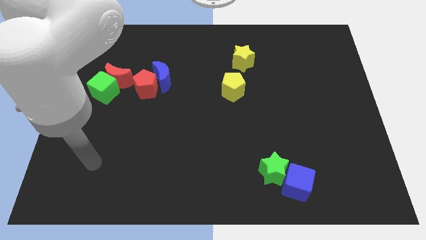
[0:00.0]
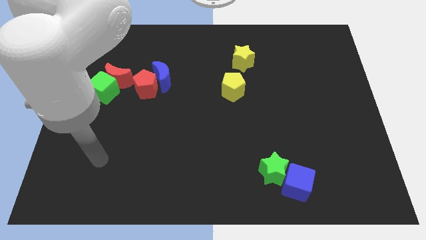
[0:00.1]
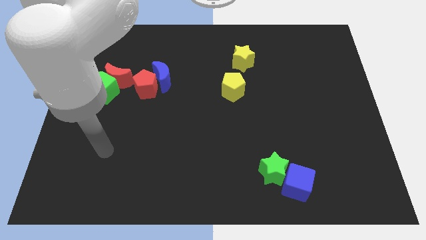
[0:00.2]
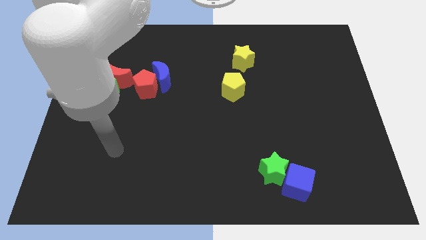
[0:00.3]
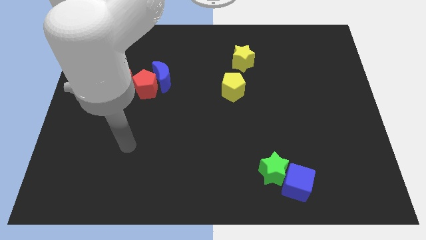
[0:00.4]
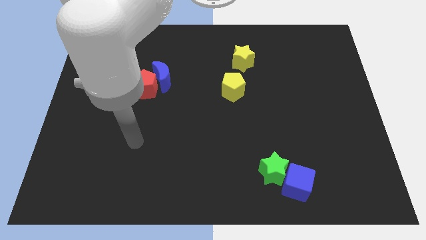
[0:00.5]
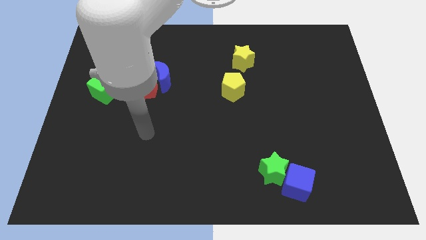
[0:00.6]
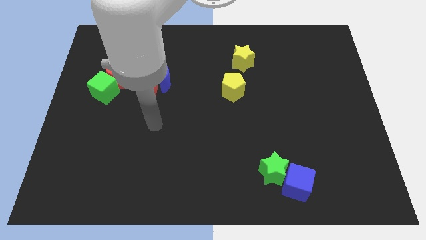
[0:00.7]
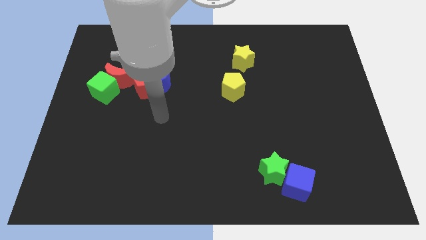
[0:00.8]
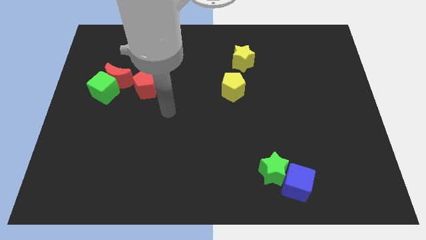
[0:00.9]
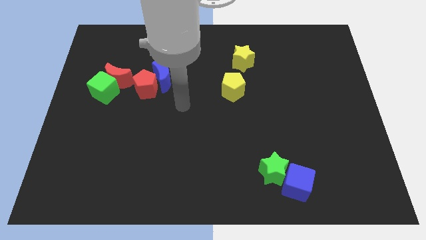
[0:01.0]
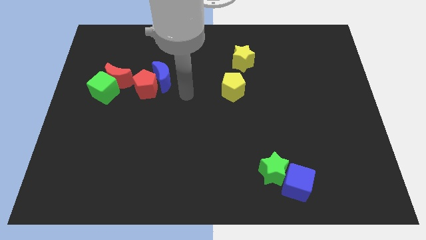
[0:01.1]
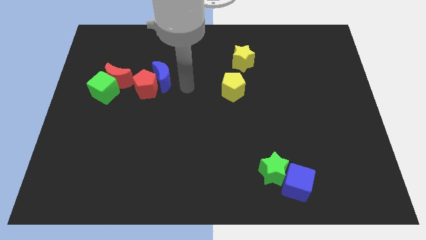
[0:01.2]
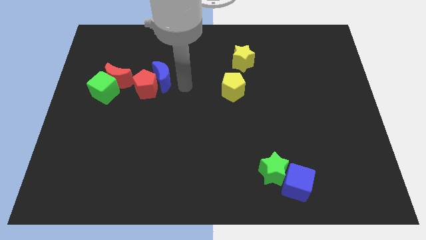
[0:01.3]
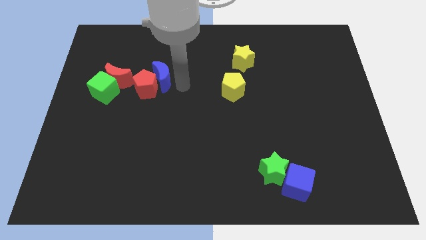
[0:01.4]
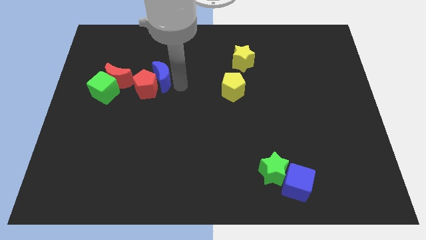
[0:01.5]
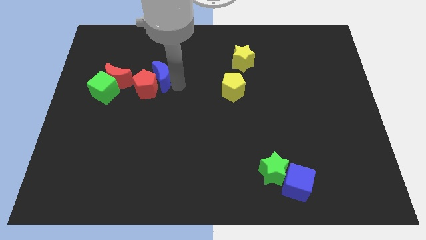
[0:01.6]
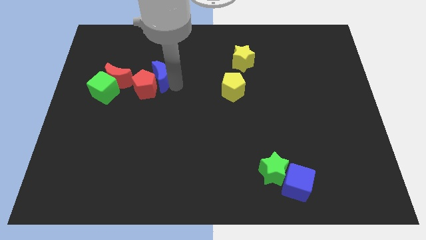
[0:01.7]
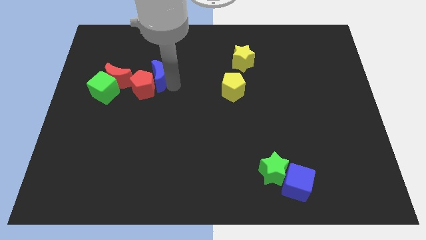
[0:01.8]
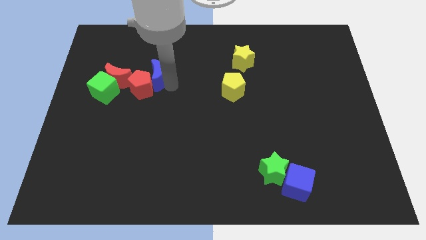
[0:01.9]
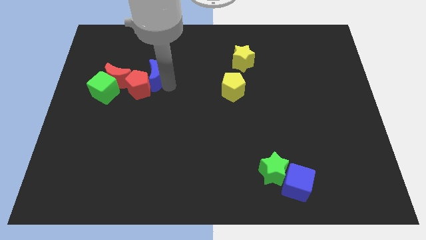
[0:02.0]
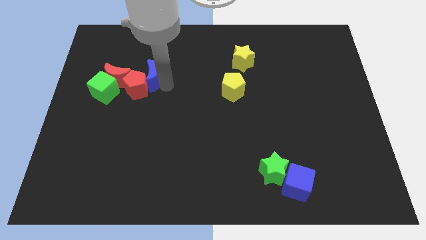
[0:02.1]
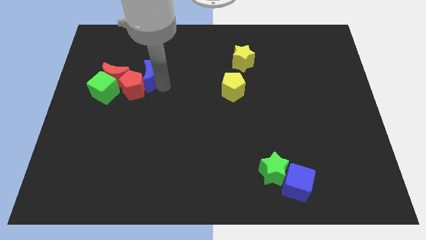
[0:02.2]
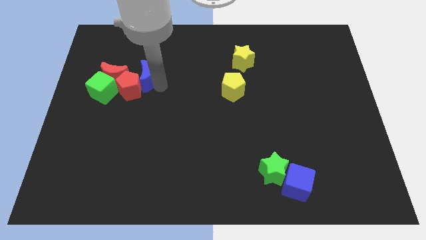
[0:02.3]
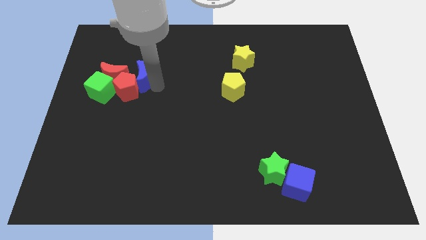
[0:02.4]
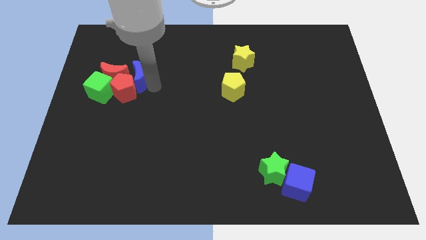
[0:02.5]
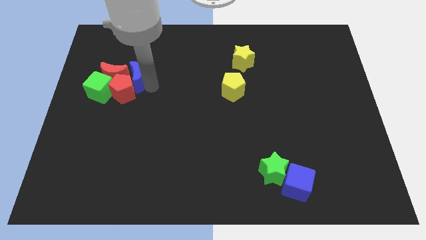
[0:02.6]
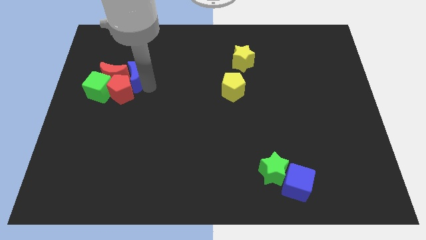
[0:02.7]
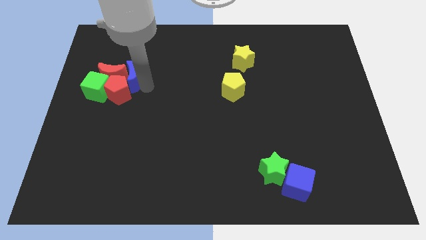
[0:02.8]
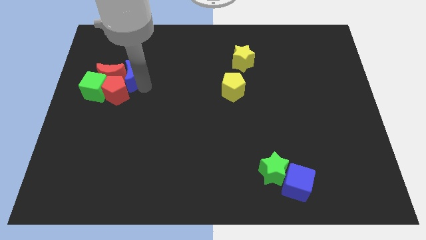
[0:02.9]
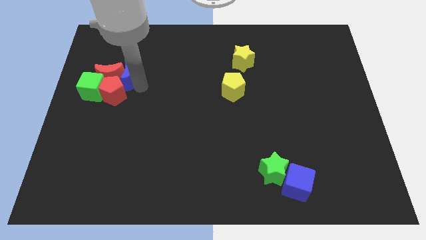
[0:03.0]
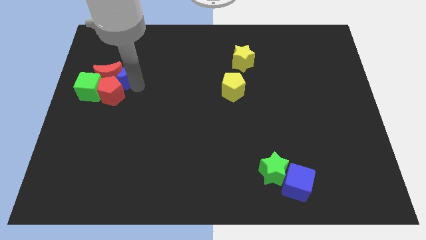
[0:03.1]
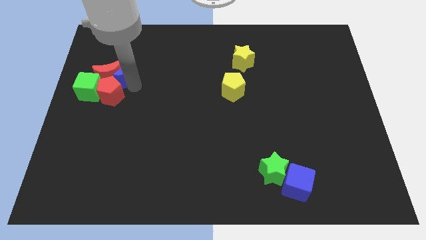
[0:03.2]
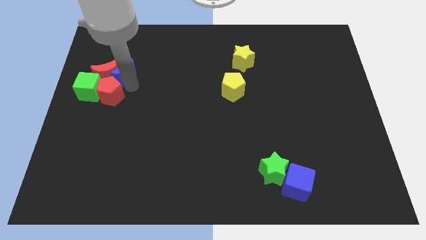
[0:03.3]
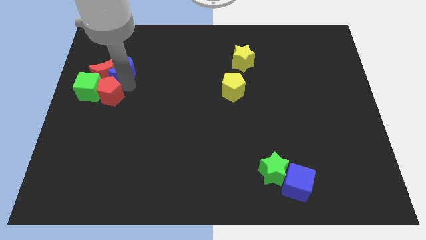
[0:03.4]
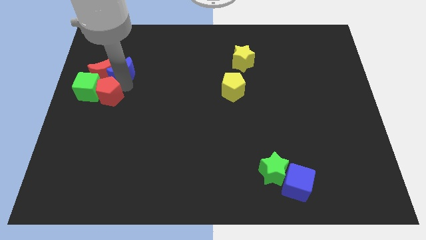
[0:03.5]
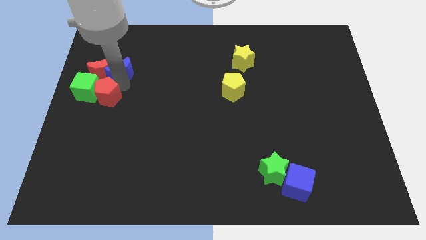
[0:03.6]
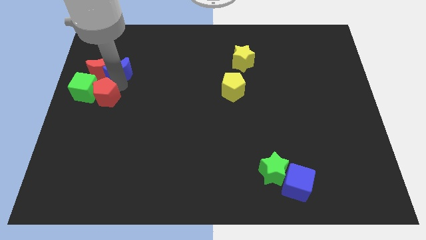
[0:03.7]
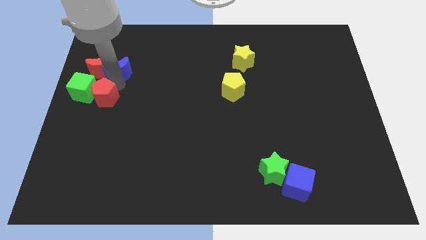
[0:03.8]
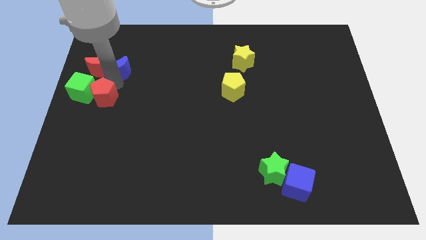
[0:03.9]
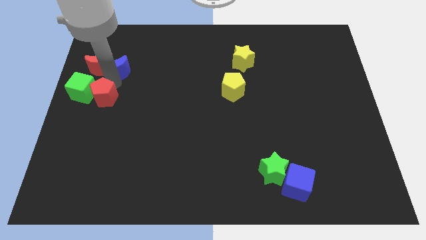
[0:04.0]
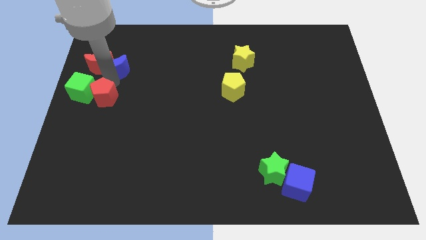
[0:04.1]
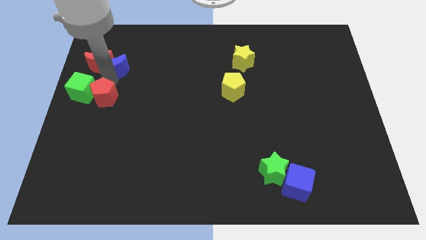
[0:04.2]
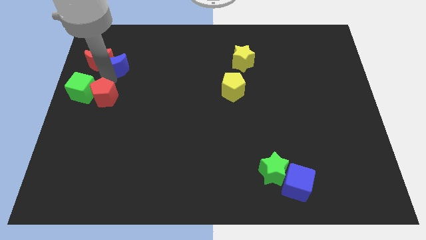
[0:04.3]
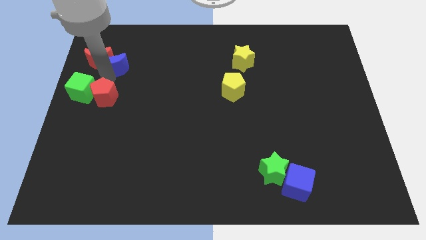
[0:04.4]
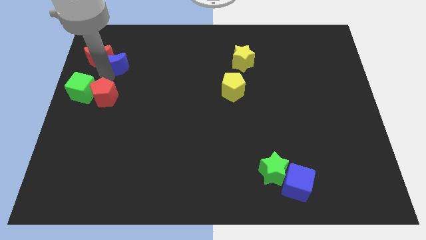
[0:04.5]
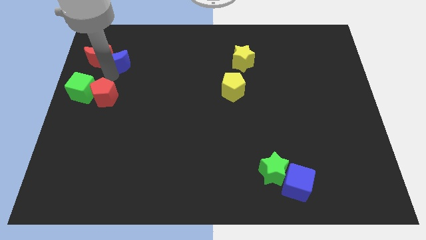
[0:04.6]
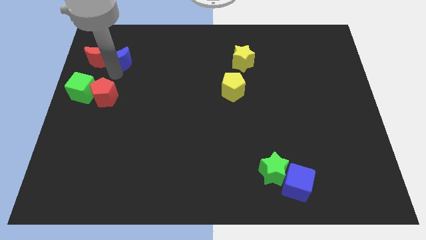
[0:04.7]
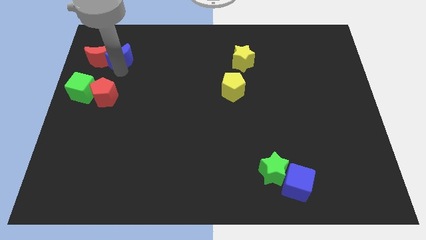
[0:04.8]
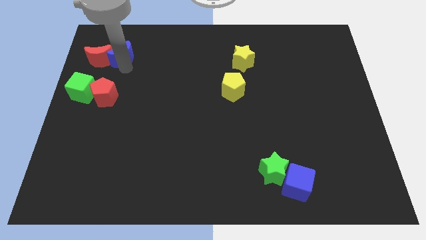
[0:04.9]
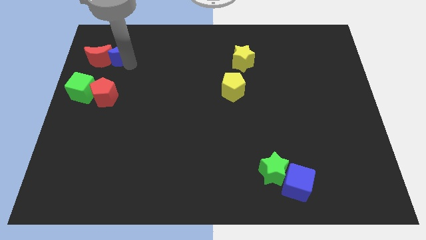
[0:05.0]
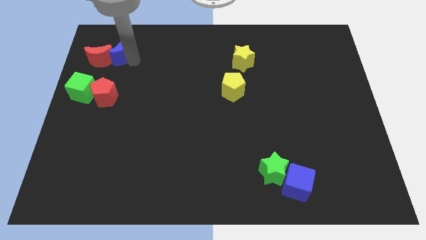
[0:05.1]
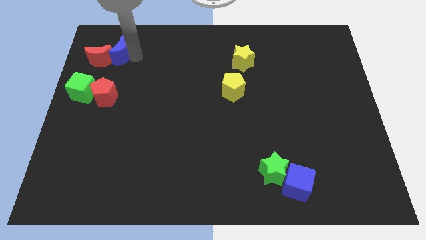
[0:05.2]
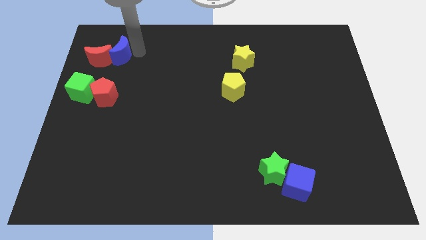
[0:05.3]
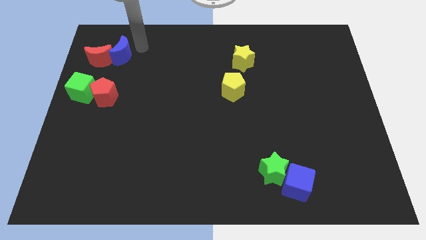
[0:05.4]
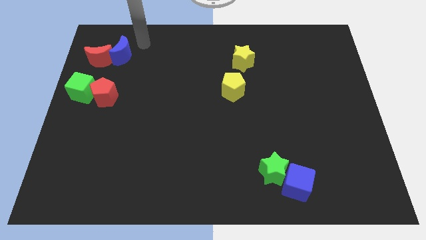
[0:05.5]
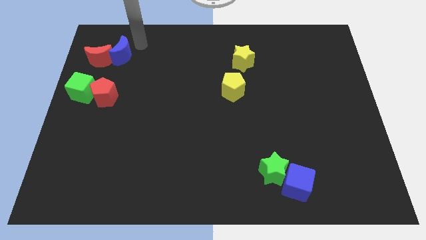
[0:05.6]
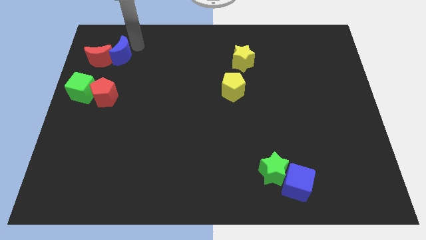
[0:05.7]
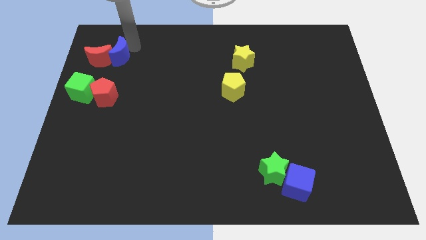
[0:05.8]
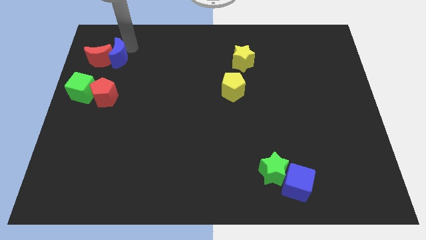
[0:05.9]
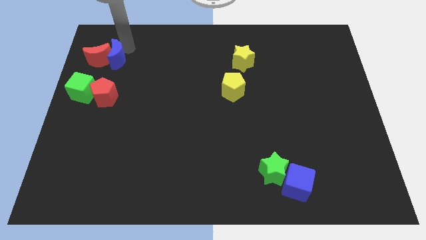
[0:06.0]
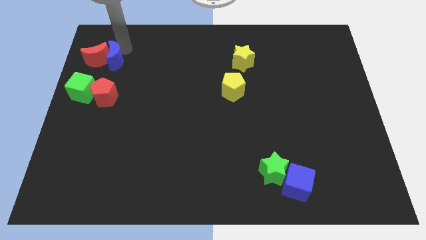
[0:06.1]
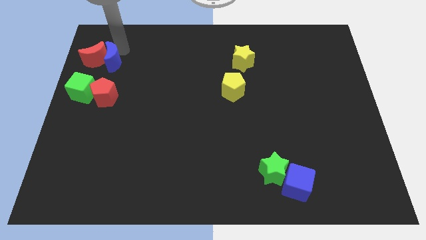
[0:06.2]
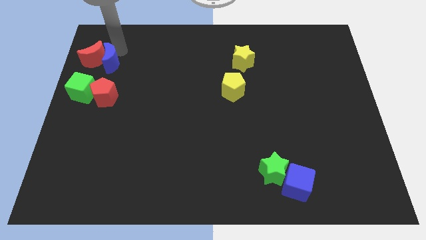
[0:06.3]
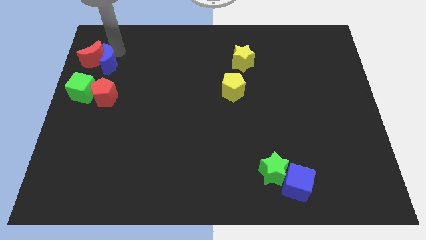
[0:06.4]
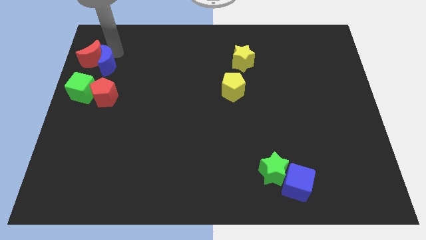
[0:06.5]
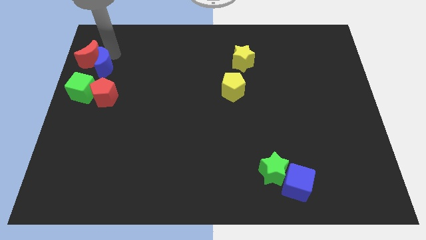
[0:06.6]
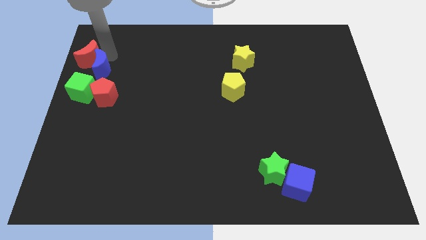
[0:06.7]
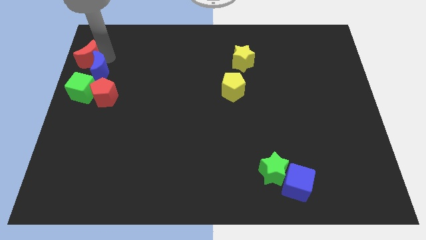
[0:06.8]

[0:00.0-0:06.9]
slide the blue moon to the left side
